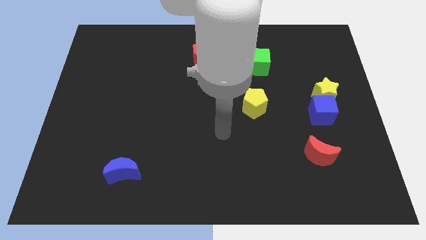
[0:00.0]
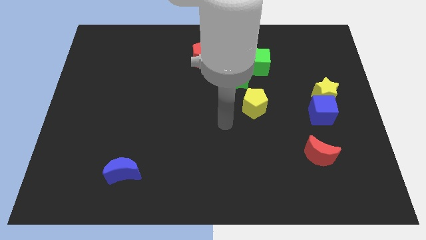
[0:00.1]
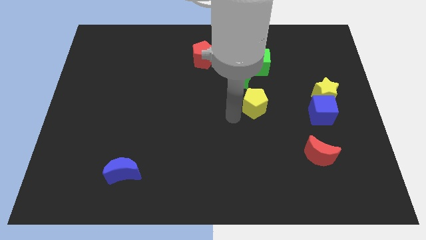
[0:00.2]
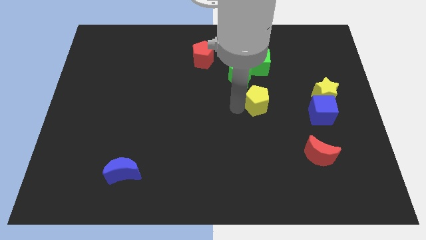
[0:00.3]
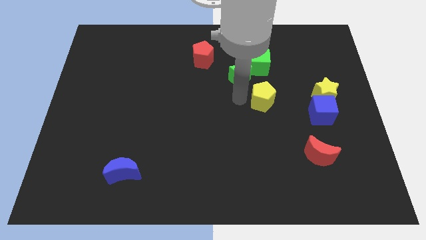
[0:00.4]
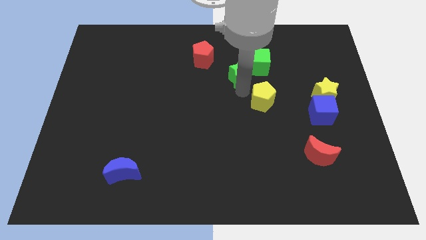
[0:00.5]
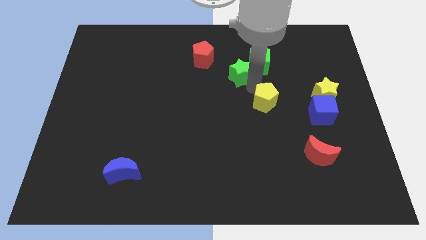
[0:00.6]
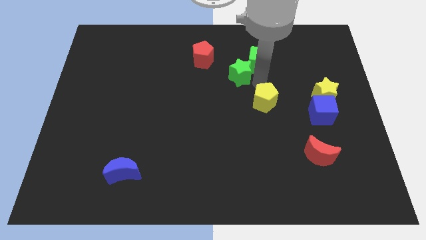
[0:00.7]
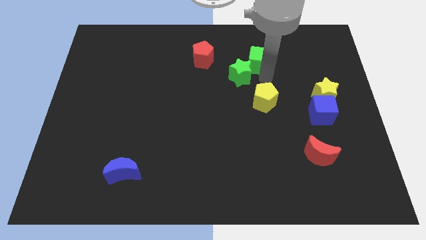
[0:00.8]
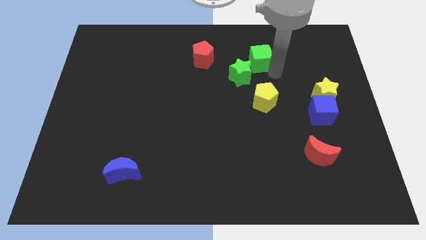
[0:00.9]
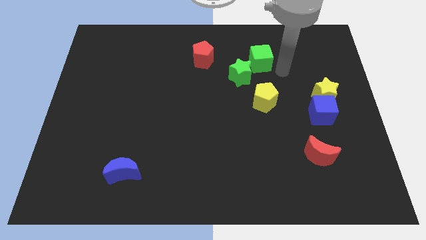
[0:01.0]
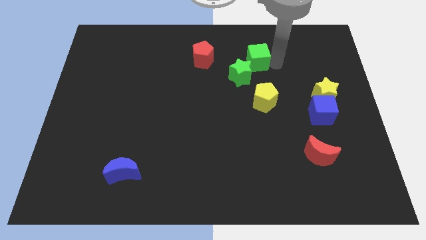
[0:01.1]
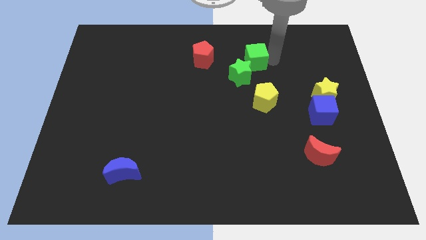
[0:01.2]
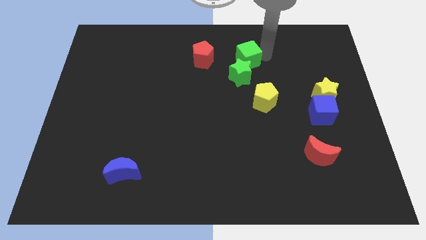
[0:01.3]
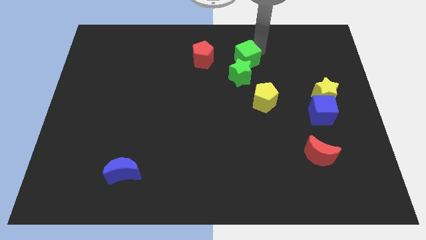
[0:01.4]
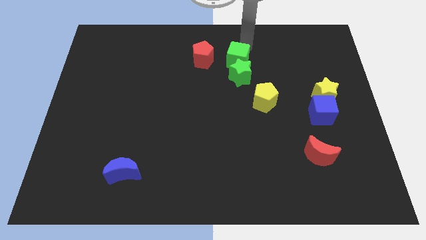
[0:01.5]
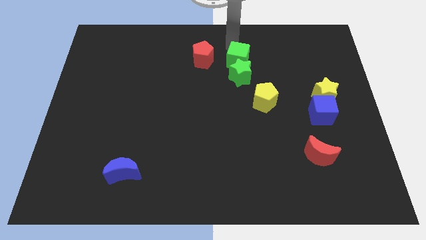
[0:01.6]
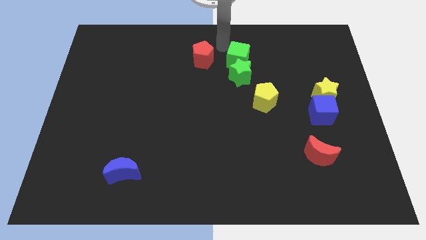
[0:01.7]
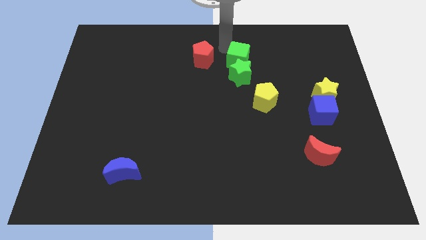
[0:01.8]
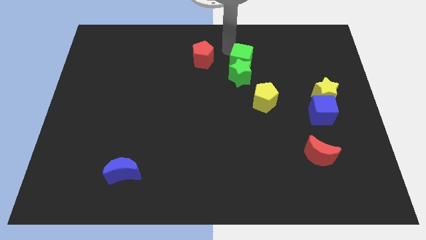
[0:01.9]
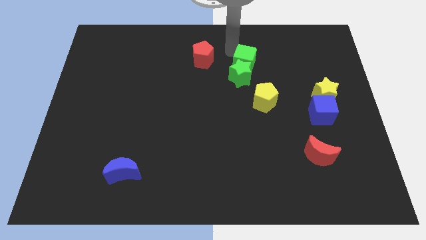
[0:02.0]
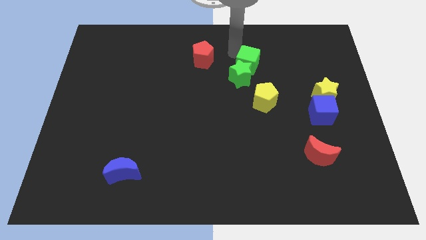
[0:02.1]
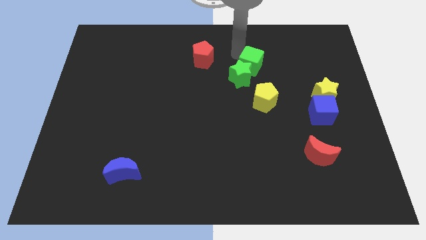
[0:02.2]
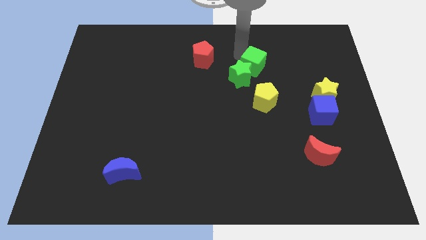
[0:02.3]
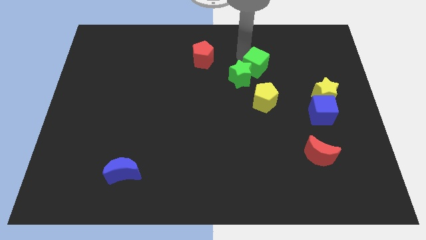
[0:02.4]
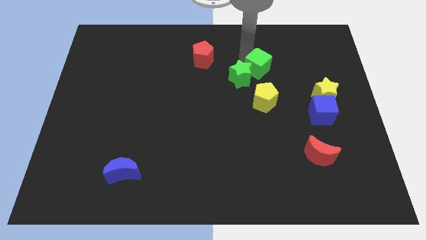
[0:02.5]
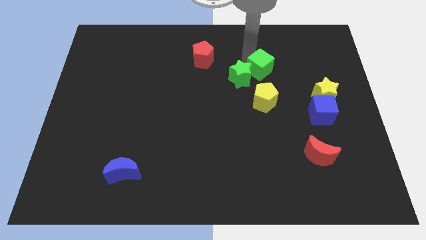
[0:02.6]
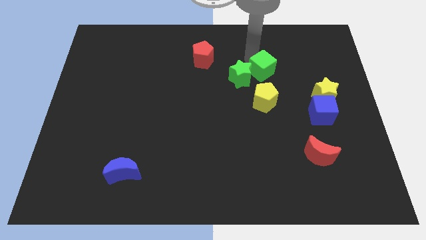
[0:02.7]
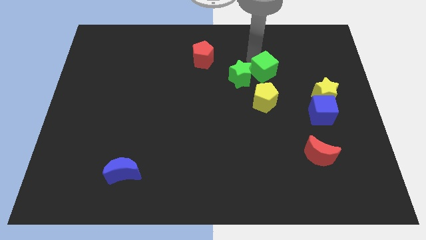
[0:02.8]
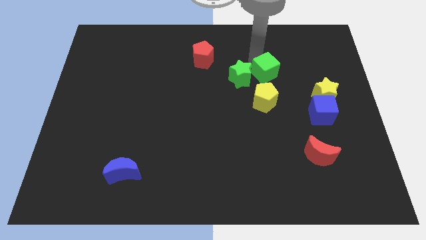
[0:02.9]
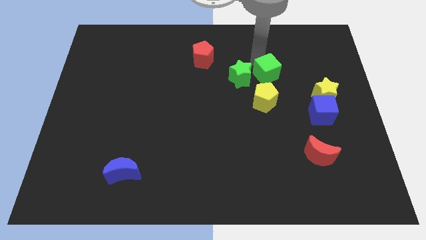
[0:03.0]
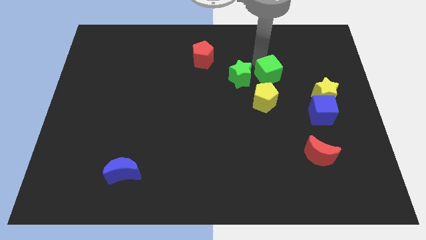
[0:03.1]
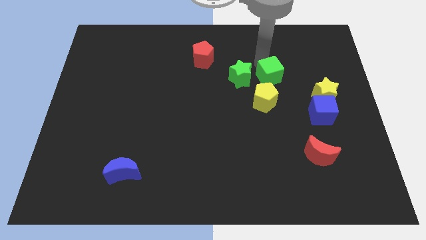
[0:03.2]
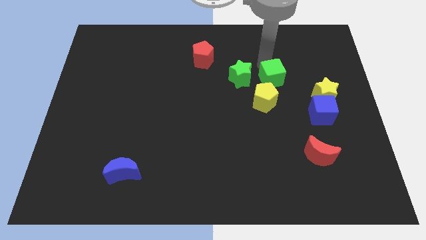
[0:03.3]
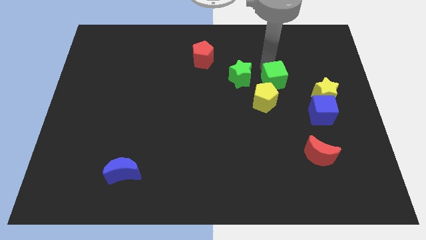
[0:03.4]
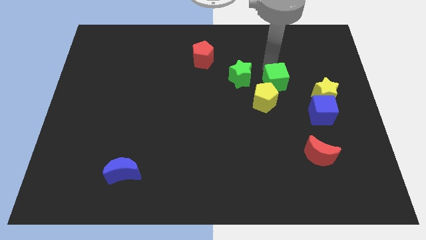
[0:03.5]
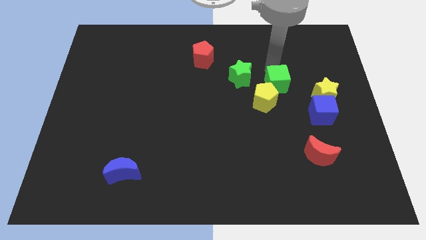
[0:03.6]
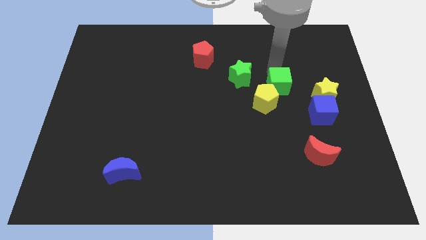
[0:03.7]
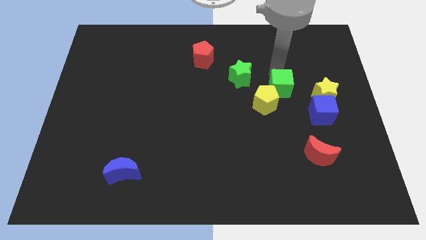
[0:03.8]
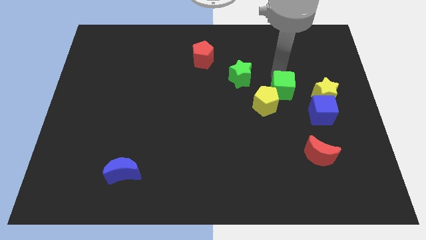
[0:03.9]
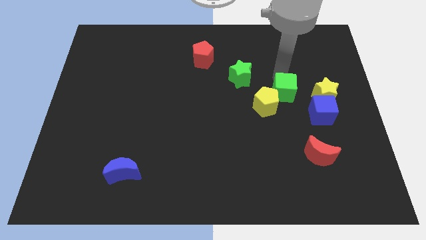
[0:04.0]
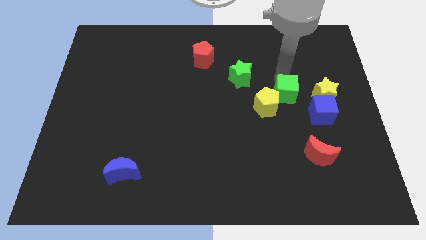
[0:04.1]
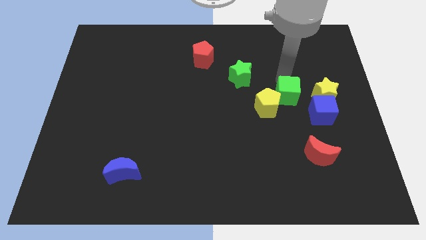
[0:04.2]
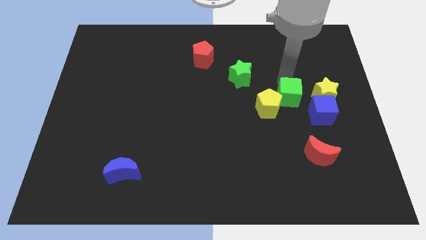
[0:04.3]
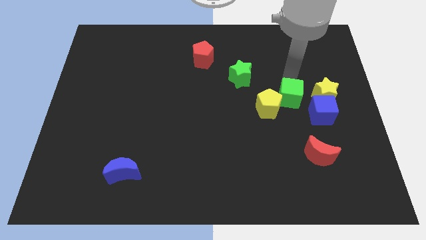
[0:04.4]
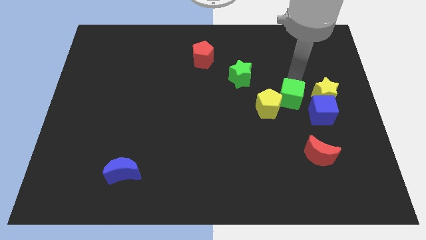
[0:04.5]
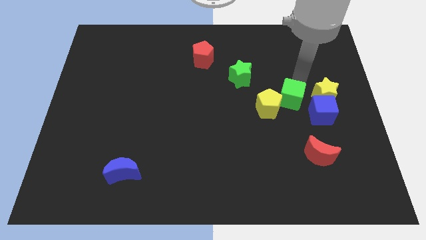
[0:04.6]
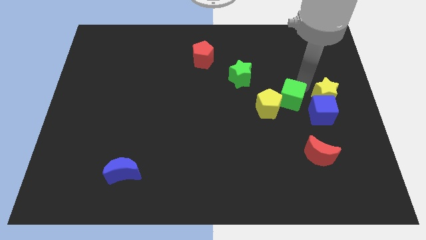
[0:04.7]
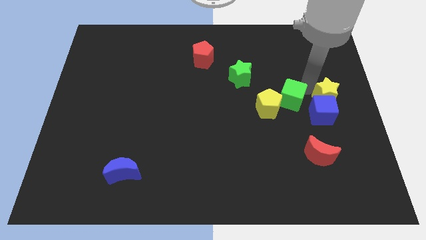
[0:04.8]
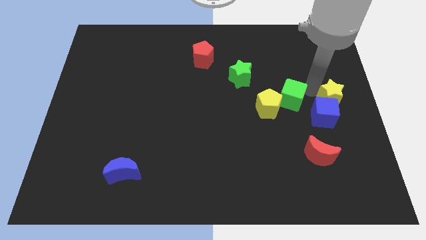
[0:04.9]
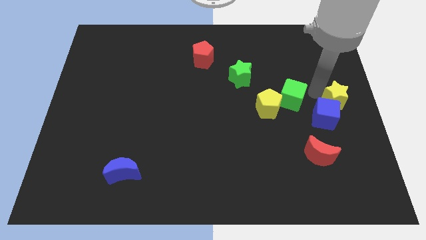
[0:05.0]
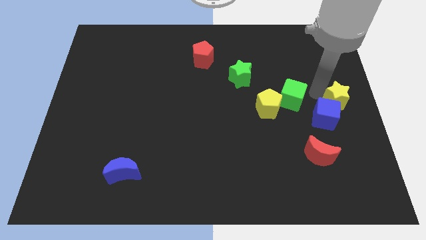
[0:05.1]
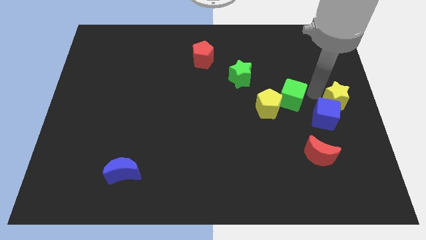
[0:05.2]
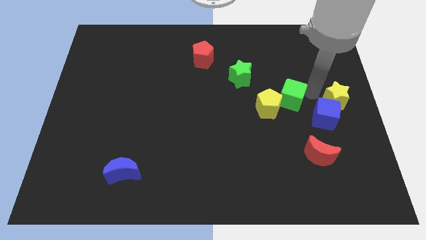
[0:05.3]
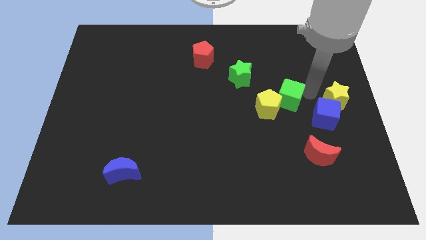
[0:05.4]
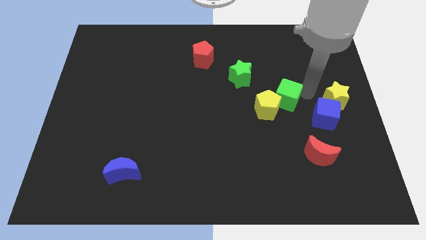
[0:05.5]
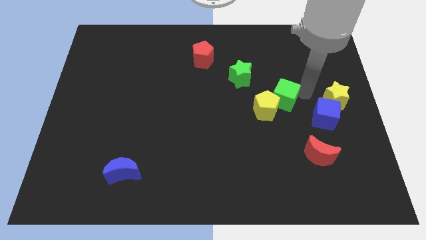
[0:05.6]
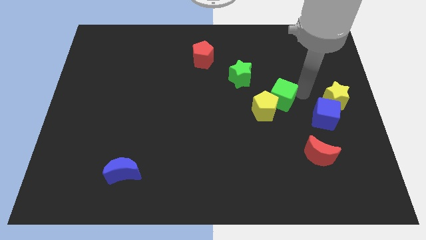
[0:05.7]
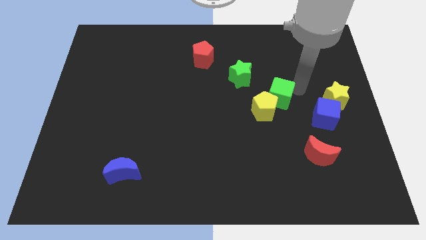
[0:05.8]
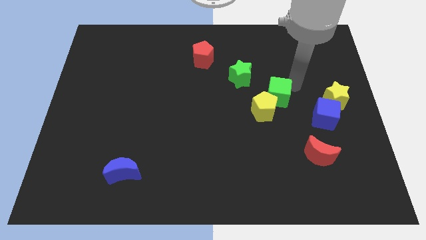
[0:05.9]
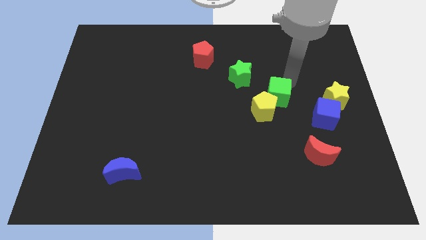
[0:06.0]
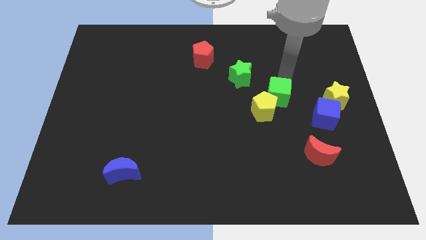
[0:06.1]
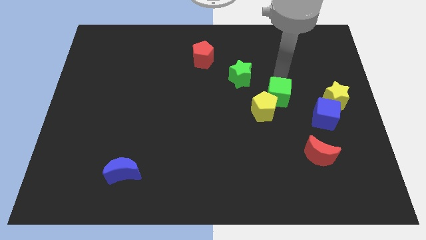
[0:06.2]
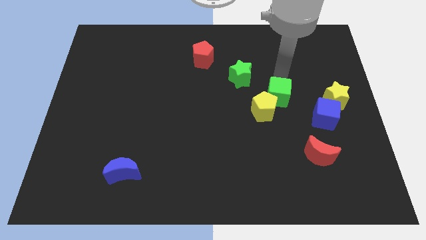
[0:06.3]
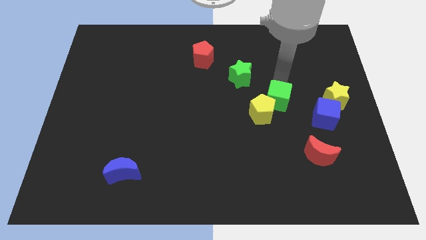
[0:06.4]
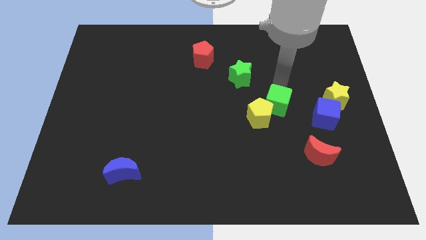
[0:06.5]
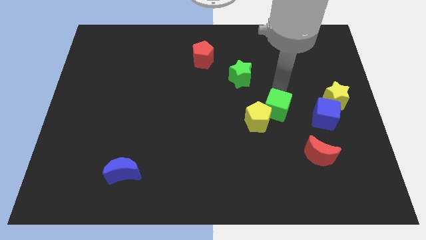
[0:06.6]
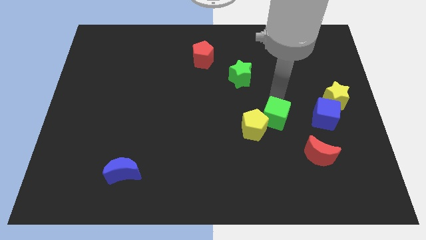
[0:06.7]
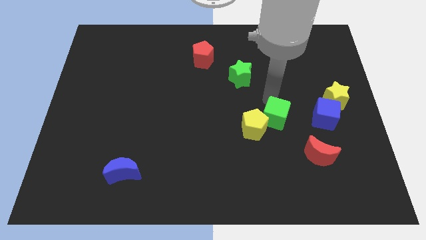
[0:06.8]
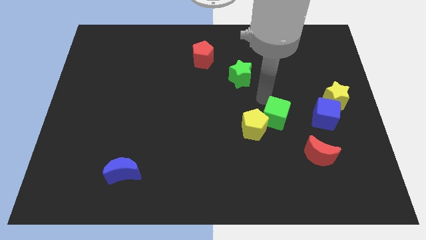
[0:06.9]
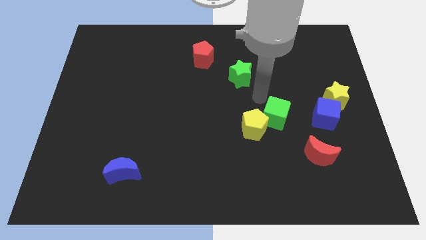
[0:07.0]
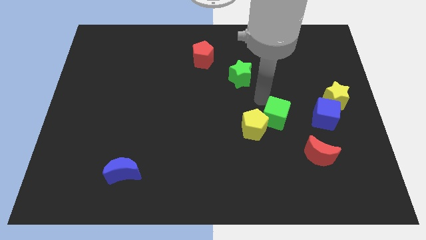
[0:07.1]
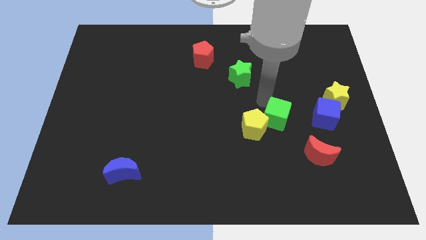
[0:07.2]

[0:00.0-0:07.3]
slide the green cube diagonally up and to the left of the red moon
